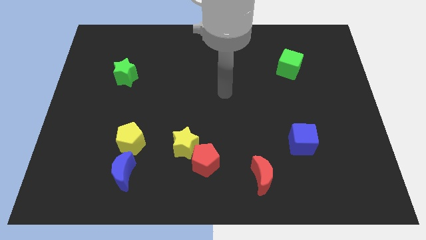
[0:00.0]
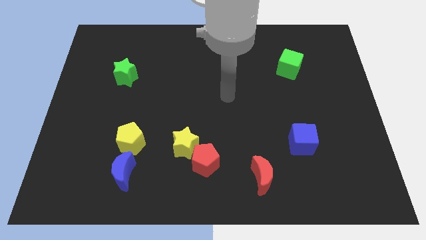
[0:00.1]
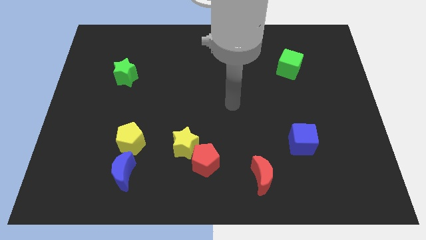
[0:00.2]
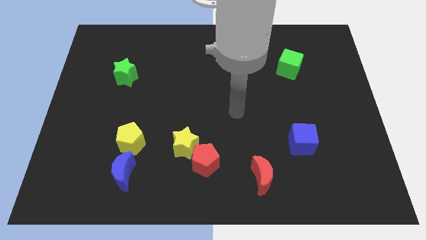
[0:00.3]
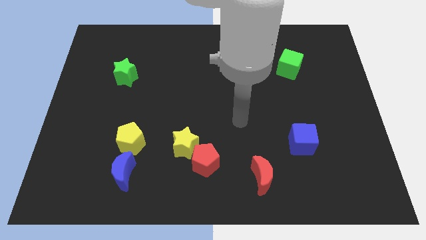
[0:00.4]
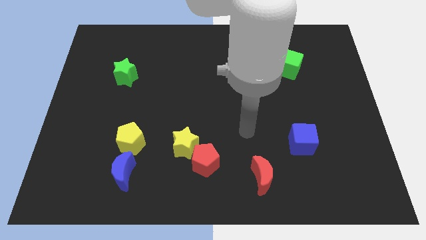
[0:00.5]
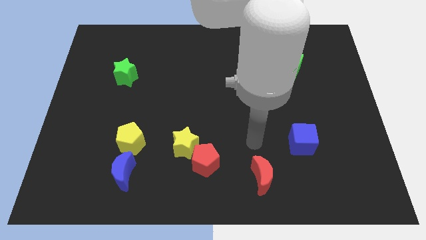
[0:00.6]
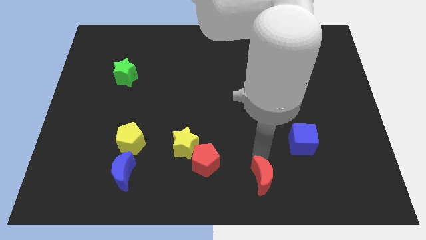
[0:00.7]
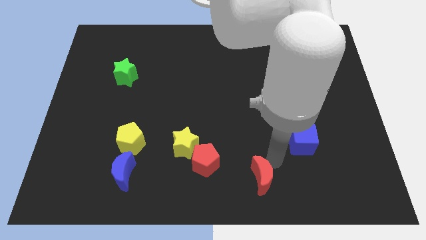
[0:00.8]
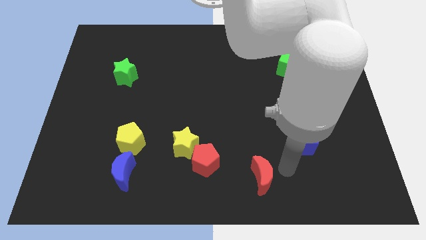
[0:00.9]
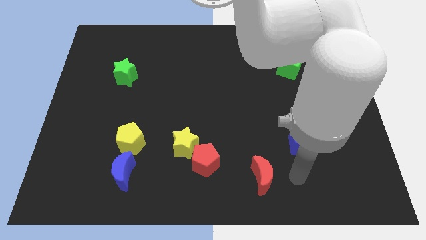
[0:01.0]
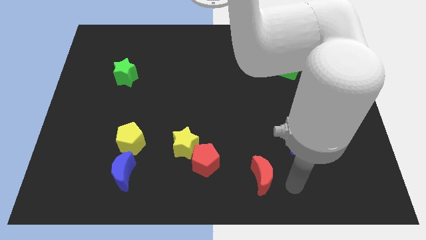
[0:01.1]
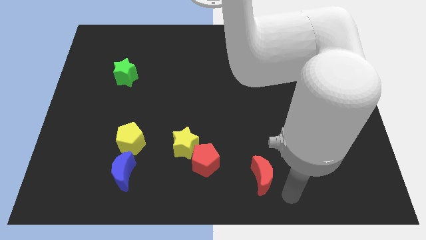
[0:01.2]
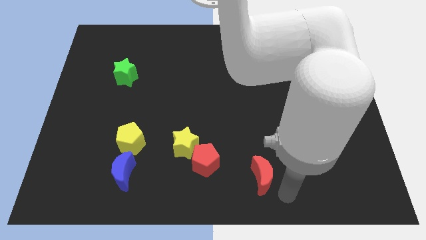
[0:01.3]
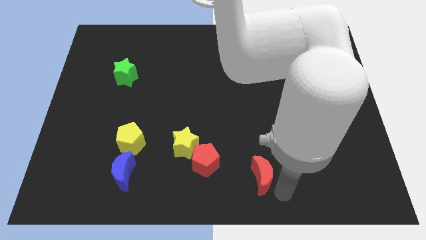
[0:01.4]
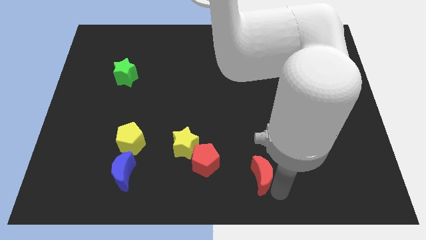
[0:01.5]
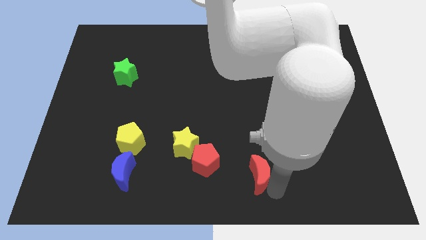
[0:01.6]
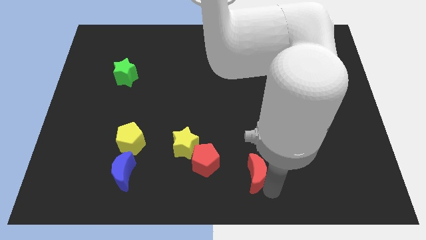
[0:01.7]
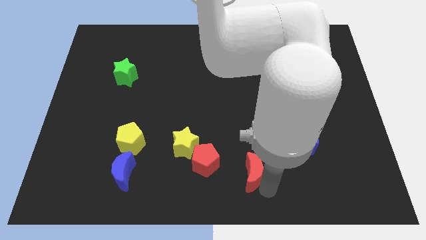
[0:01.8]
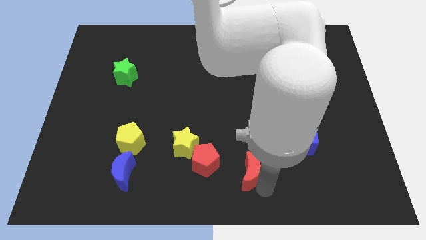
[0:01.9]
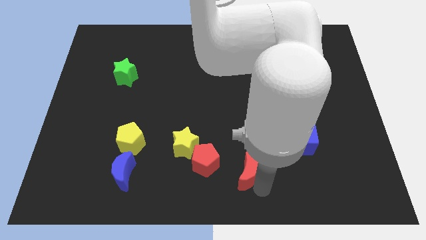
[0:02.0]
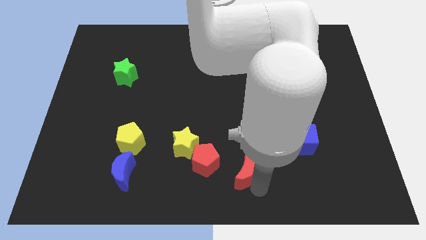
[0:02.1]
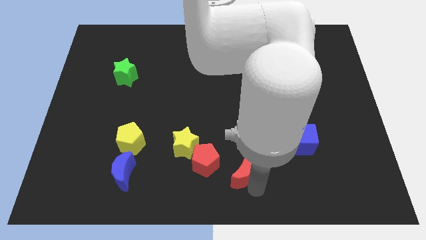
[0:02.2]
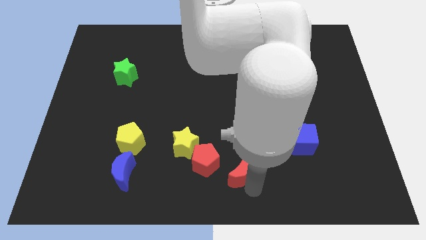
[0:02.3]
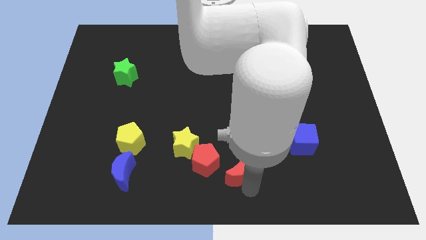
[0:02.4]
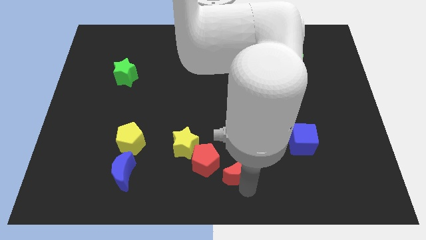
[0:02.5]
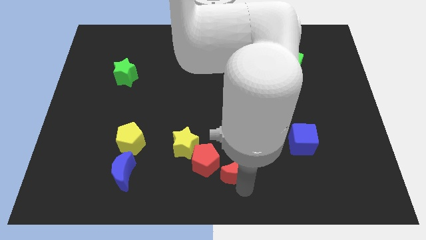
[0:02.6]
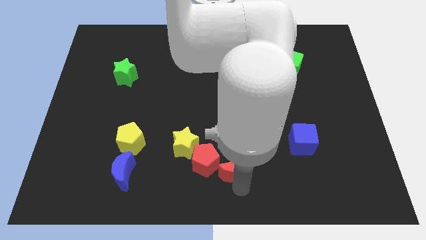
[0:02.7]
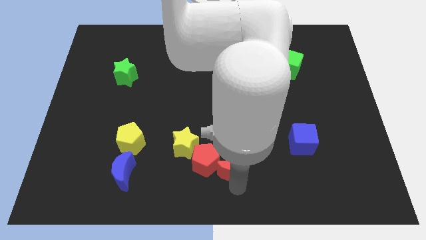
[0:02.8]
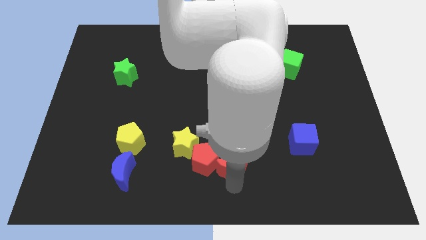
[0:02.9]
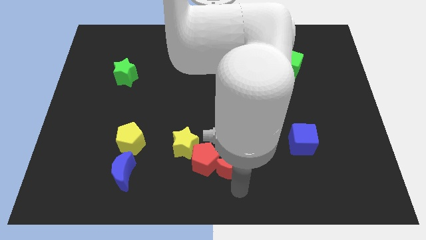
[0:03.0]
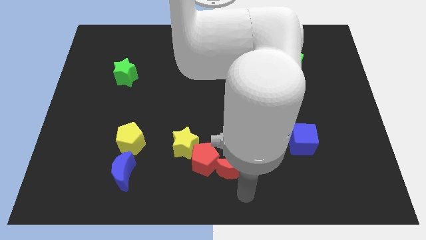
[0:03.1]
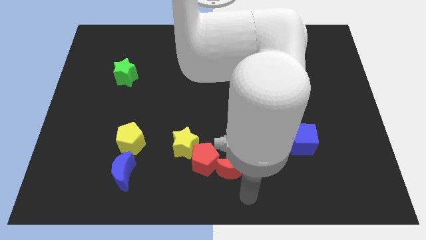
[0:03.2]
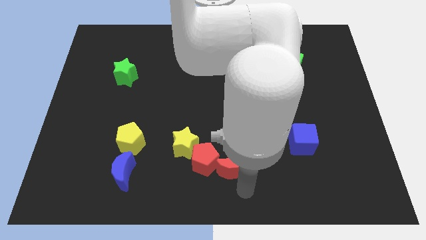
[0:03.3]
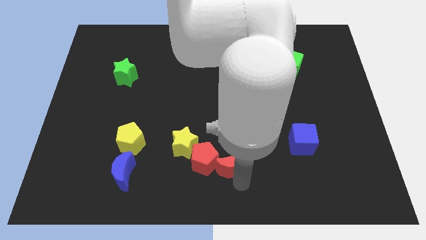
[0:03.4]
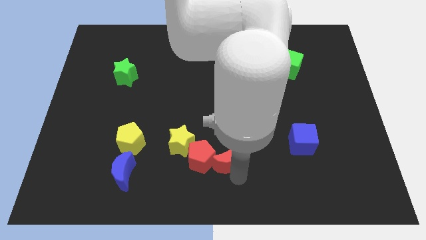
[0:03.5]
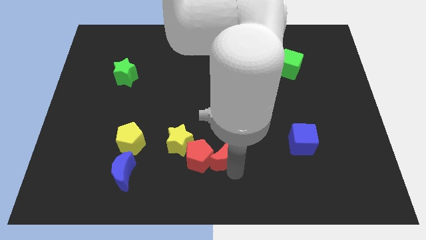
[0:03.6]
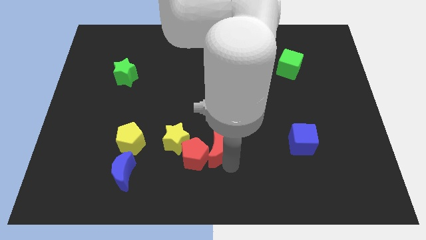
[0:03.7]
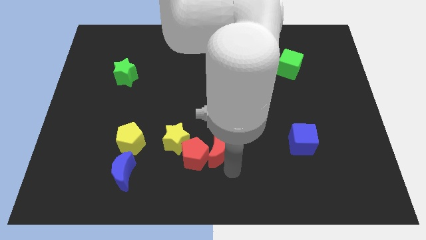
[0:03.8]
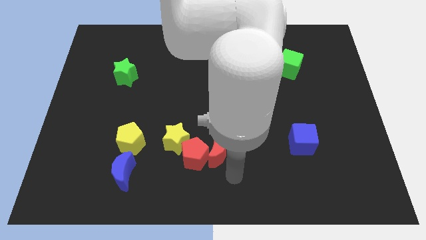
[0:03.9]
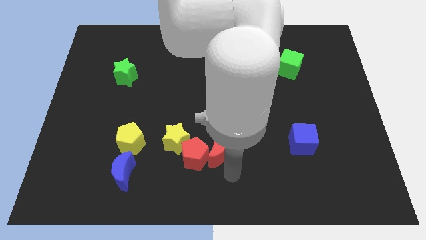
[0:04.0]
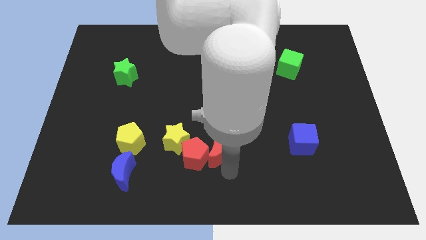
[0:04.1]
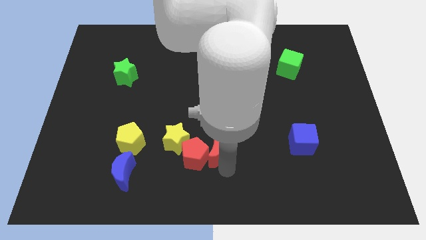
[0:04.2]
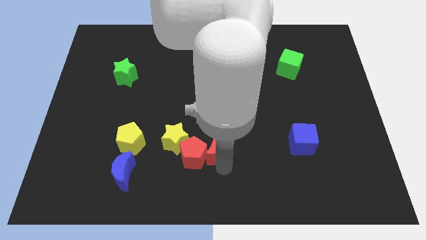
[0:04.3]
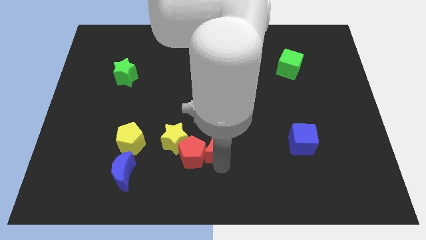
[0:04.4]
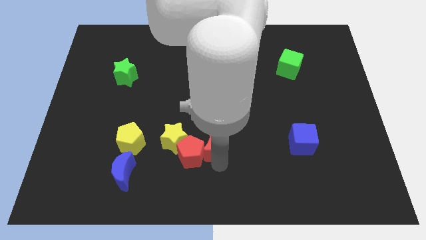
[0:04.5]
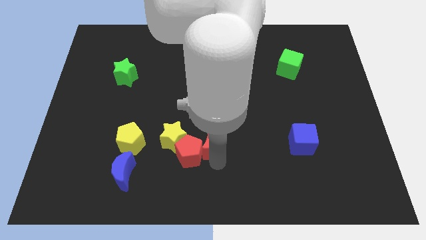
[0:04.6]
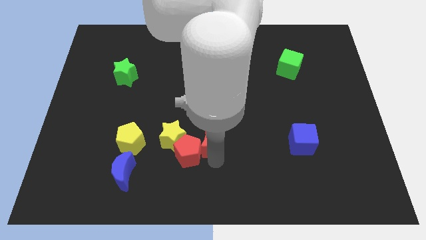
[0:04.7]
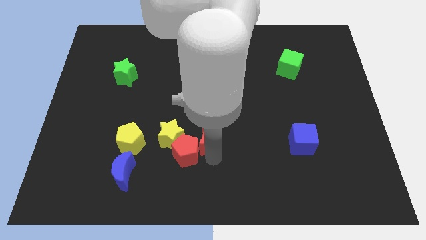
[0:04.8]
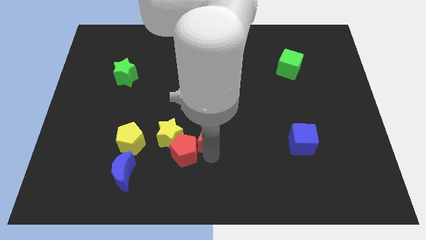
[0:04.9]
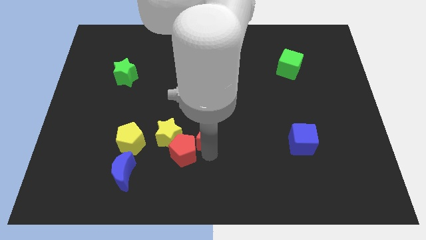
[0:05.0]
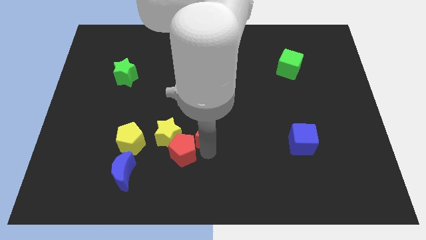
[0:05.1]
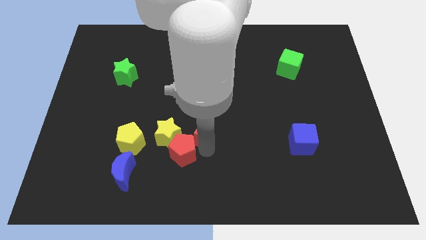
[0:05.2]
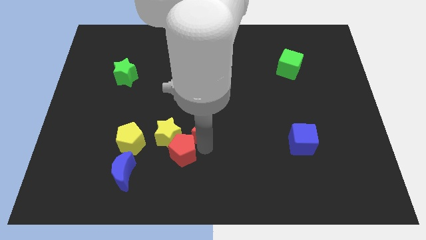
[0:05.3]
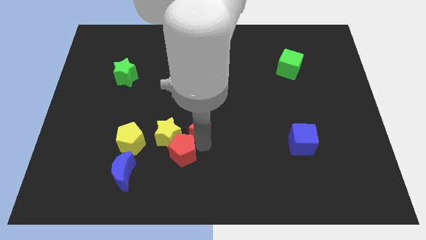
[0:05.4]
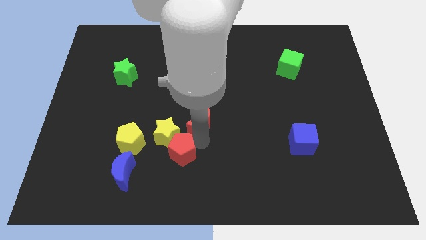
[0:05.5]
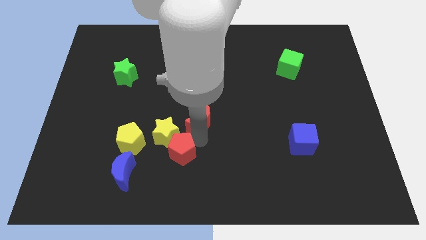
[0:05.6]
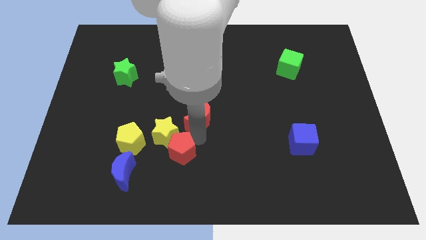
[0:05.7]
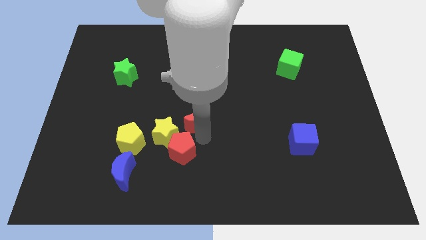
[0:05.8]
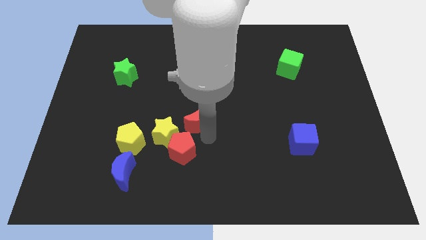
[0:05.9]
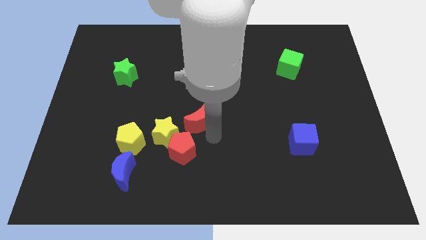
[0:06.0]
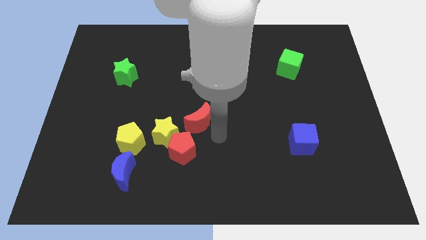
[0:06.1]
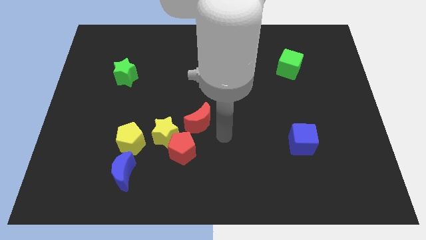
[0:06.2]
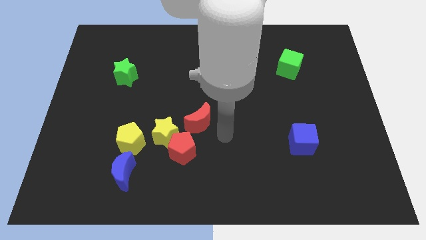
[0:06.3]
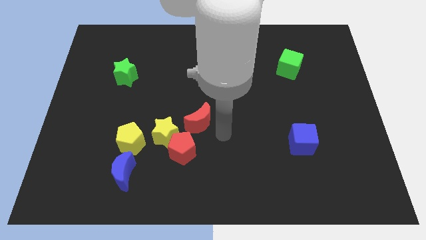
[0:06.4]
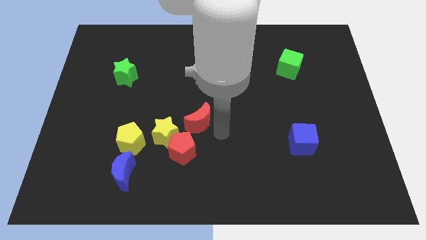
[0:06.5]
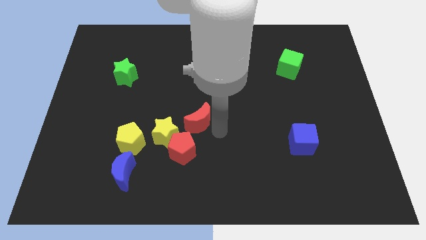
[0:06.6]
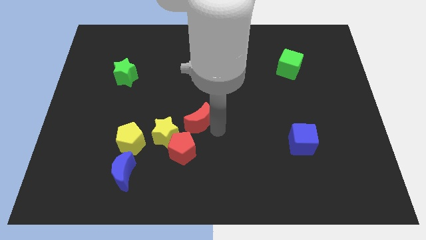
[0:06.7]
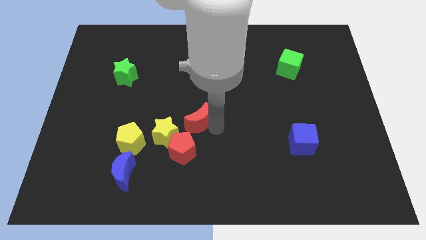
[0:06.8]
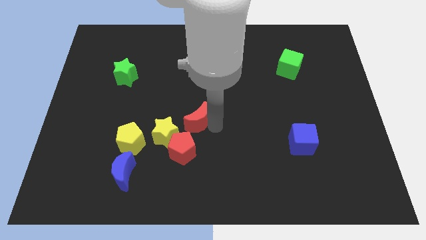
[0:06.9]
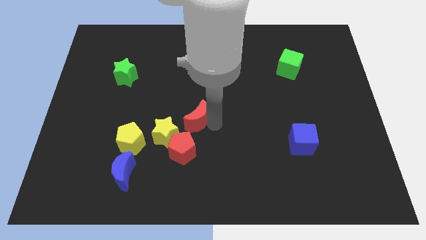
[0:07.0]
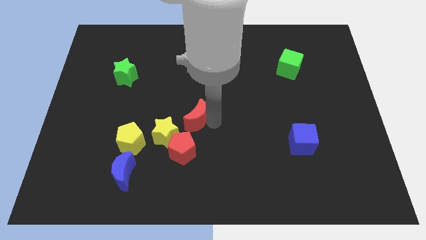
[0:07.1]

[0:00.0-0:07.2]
push the red moon up and left diagonally

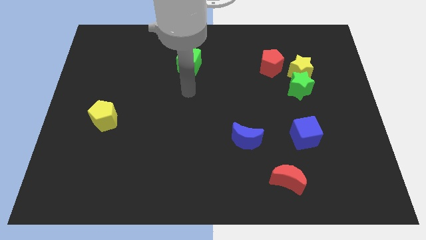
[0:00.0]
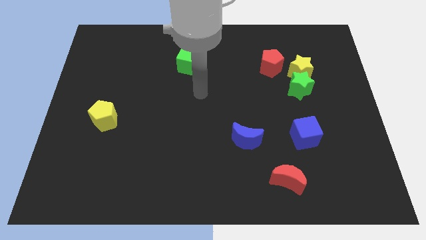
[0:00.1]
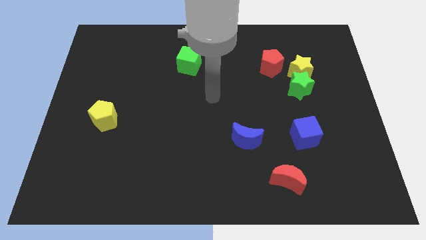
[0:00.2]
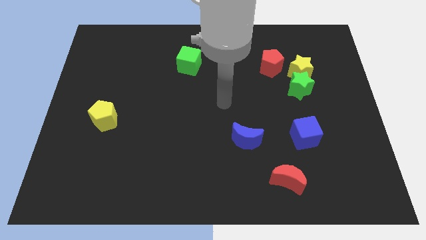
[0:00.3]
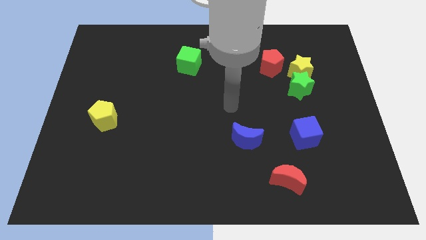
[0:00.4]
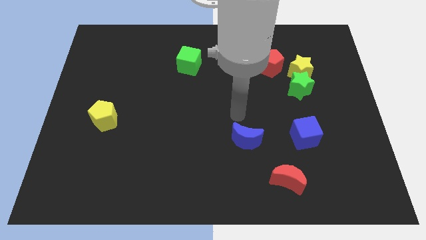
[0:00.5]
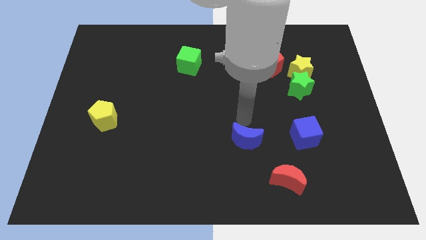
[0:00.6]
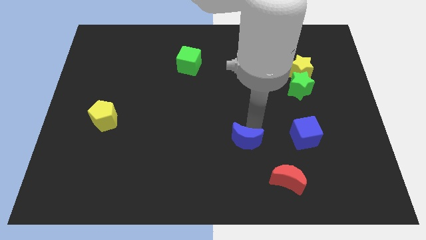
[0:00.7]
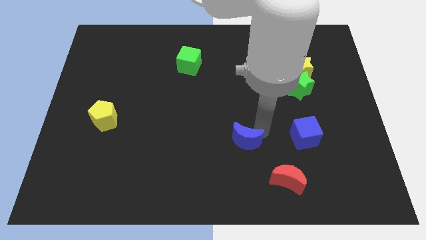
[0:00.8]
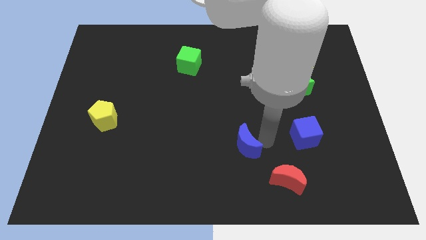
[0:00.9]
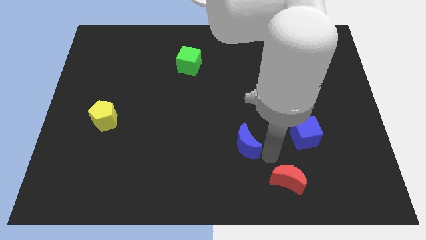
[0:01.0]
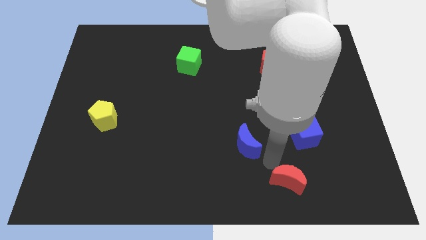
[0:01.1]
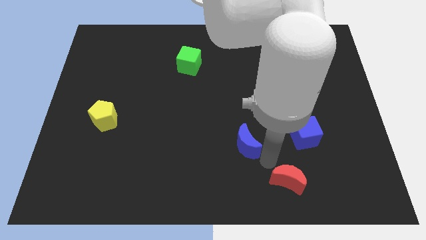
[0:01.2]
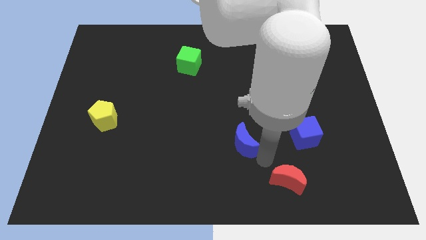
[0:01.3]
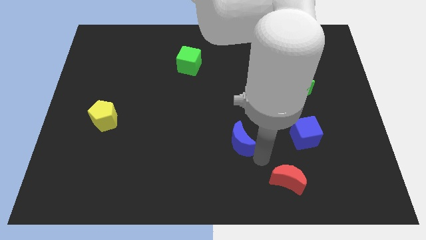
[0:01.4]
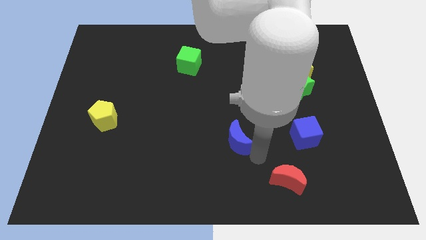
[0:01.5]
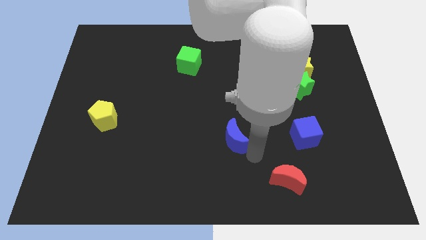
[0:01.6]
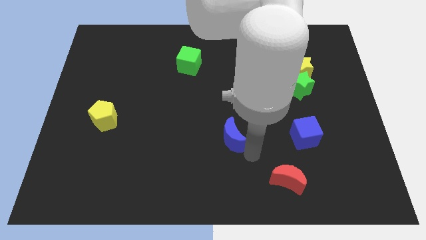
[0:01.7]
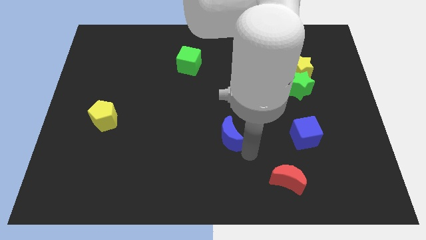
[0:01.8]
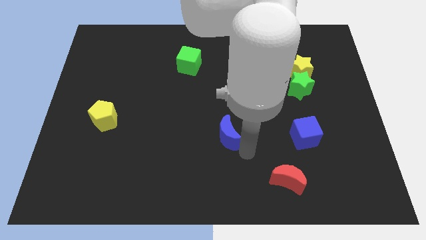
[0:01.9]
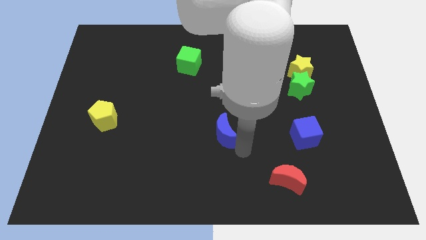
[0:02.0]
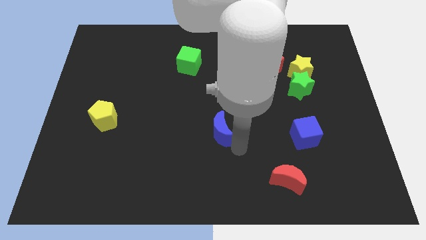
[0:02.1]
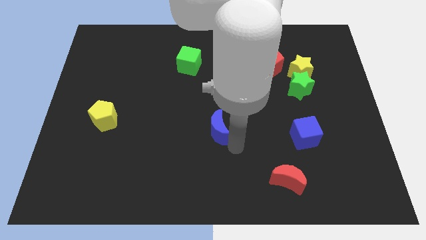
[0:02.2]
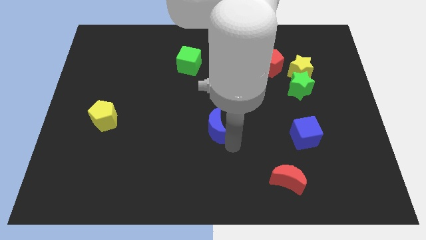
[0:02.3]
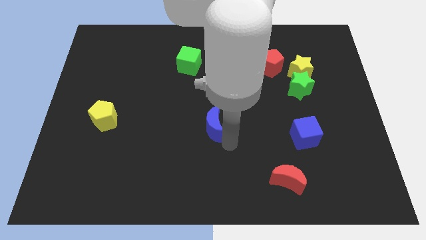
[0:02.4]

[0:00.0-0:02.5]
move the blue moon somewhat diagonally up and left
